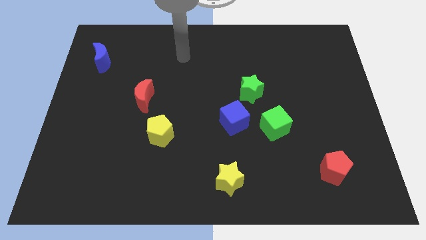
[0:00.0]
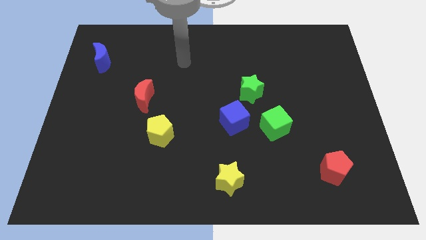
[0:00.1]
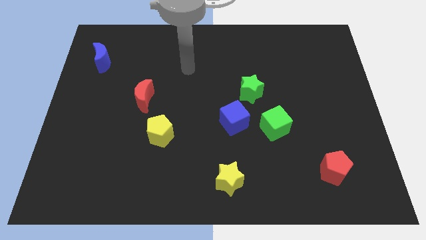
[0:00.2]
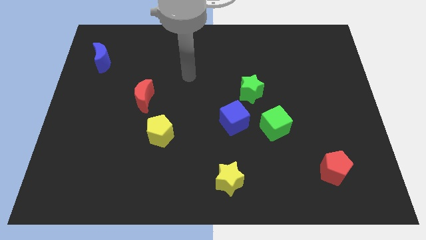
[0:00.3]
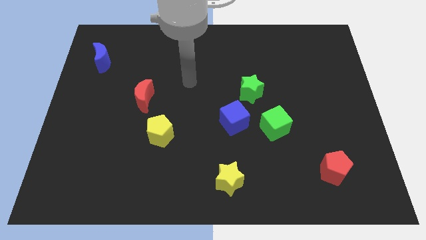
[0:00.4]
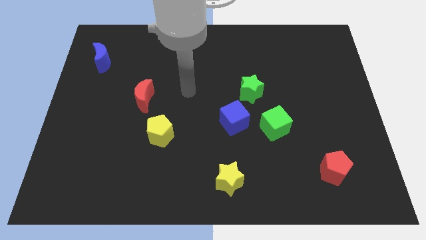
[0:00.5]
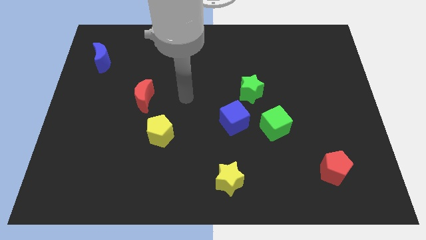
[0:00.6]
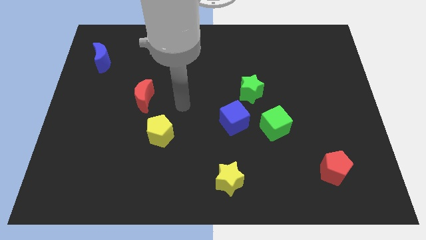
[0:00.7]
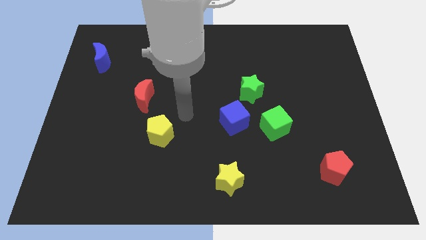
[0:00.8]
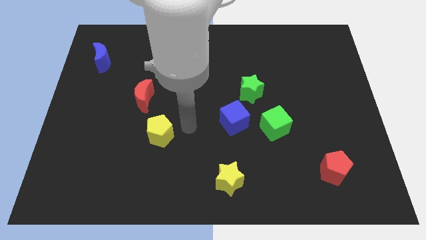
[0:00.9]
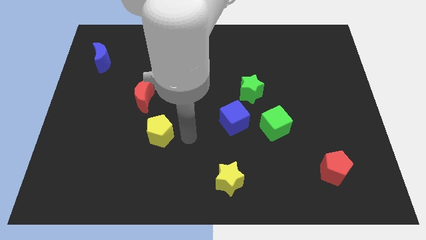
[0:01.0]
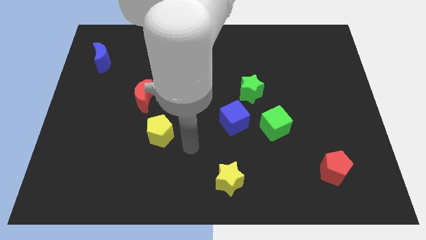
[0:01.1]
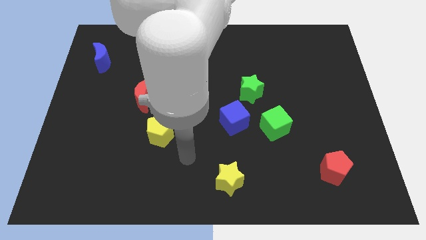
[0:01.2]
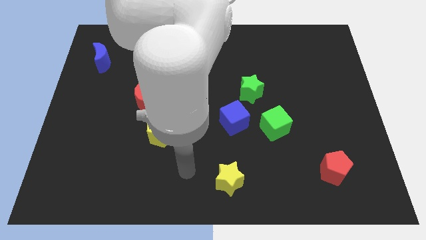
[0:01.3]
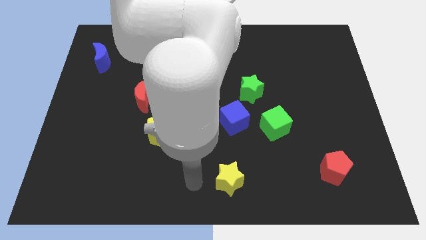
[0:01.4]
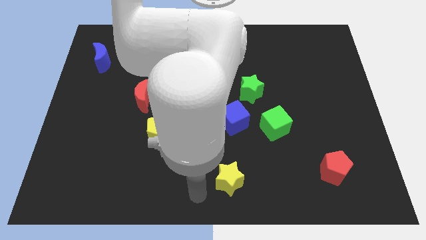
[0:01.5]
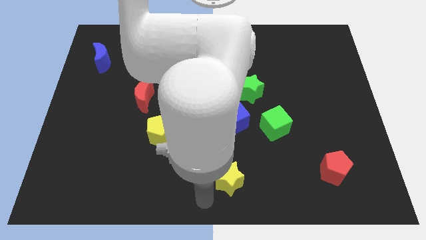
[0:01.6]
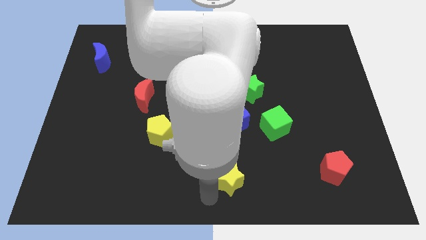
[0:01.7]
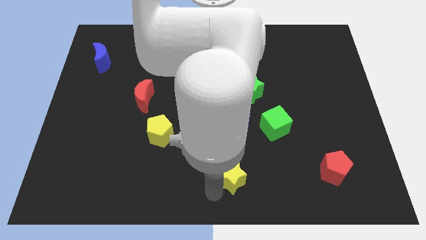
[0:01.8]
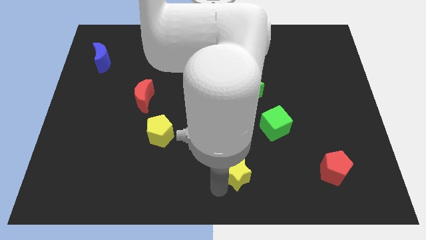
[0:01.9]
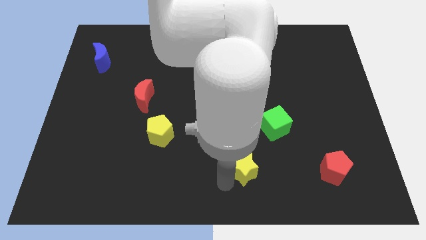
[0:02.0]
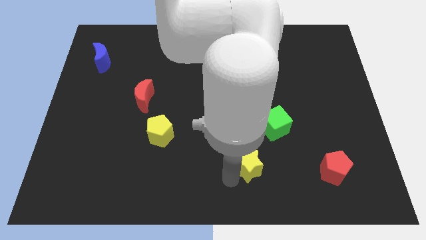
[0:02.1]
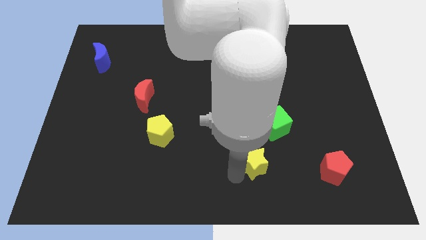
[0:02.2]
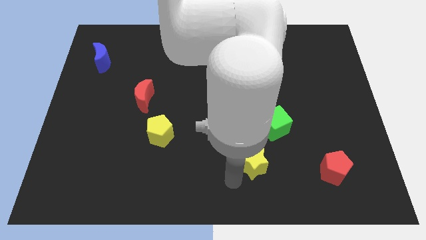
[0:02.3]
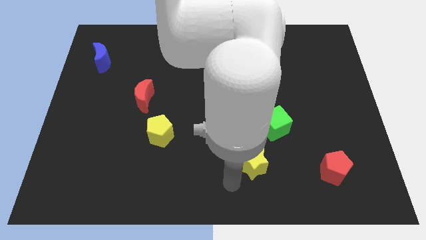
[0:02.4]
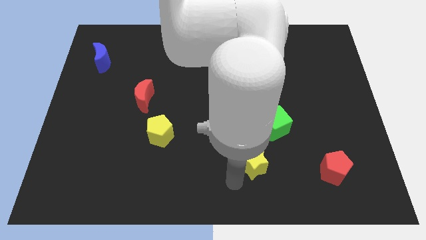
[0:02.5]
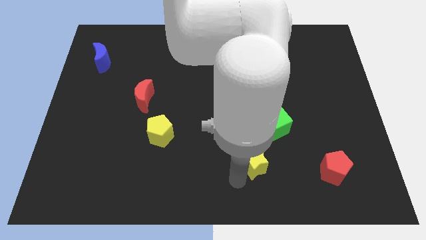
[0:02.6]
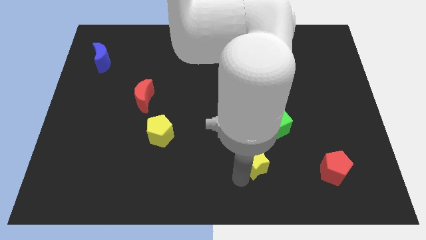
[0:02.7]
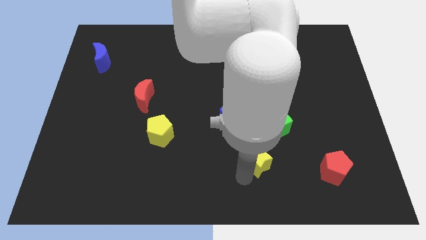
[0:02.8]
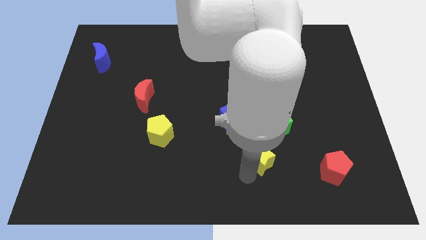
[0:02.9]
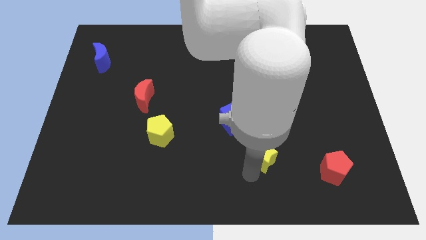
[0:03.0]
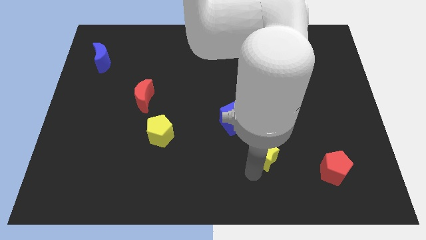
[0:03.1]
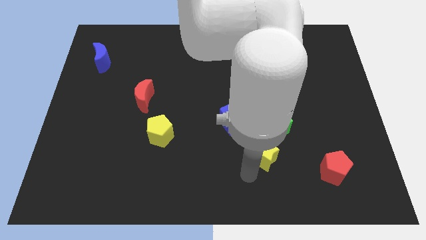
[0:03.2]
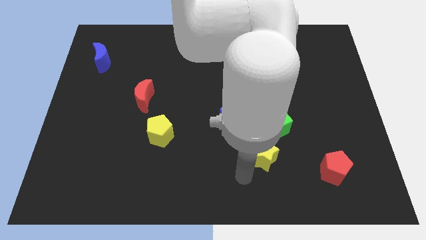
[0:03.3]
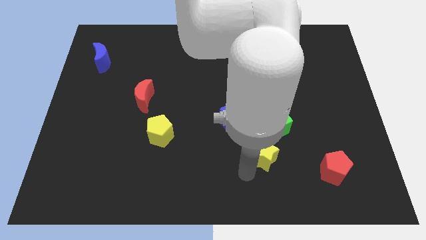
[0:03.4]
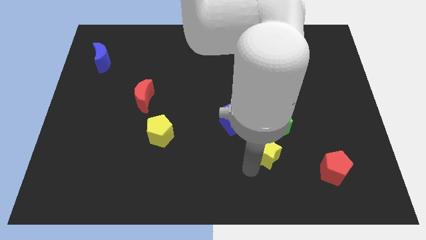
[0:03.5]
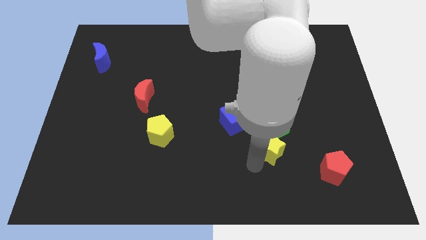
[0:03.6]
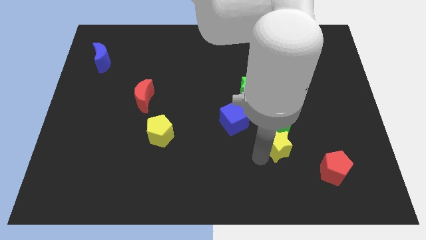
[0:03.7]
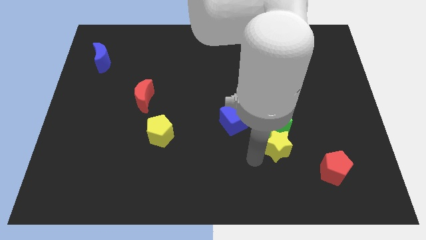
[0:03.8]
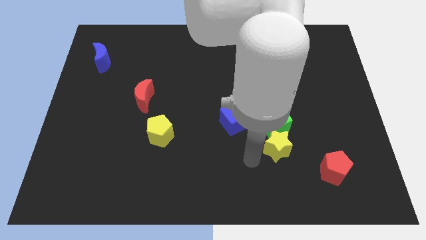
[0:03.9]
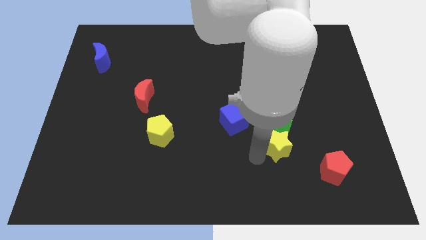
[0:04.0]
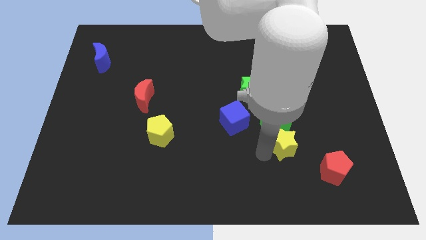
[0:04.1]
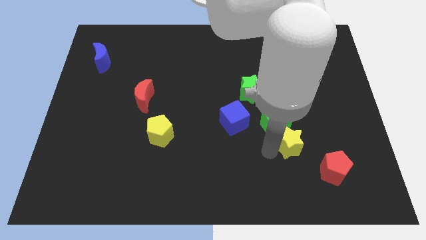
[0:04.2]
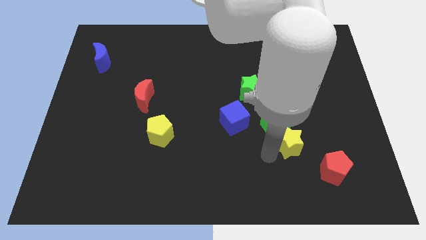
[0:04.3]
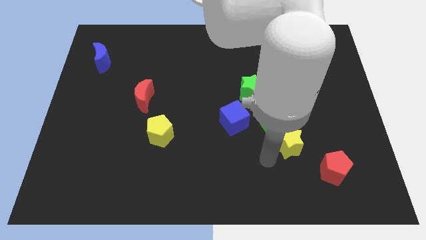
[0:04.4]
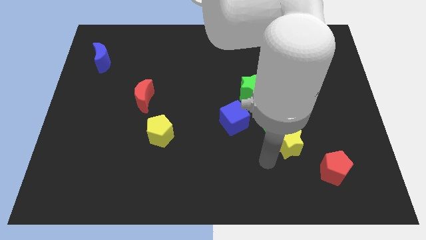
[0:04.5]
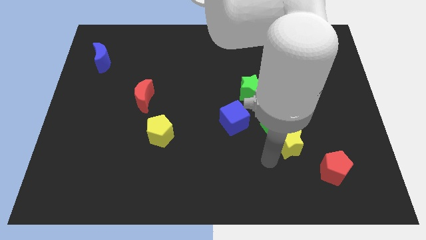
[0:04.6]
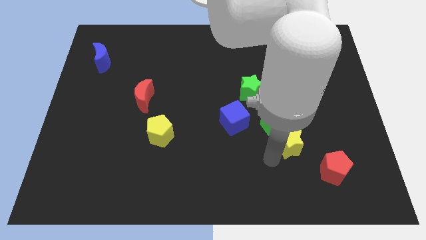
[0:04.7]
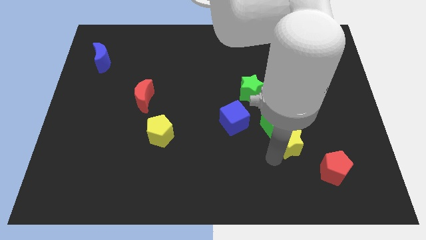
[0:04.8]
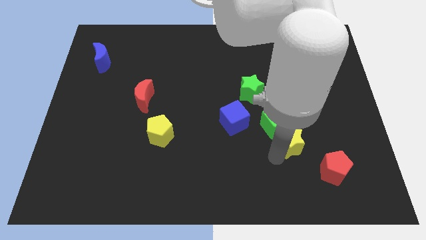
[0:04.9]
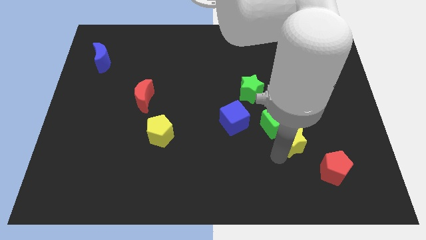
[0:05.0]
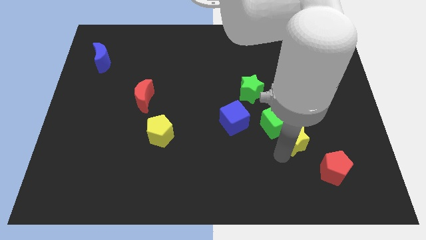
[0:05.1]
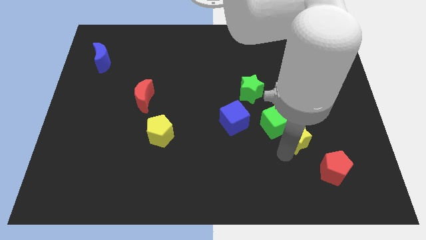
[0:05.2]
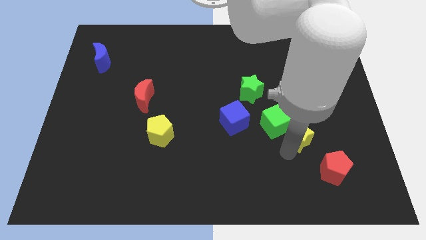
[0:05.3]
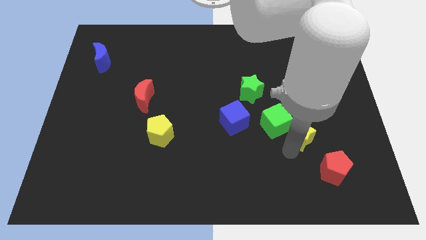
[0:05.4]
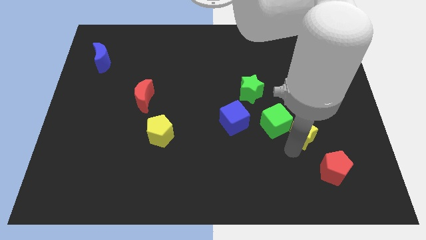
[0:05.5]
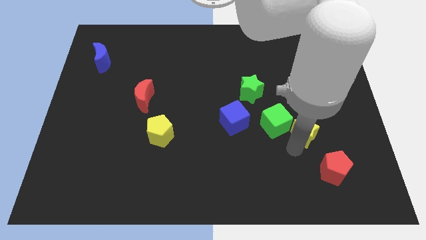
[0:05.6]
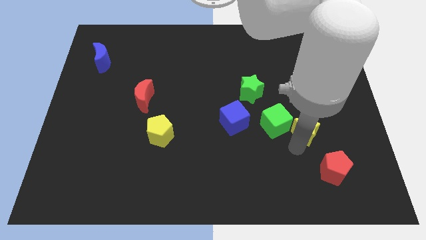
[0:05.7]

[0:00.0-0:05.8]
move the yellow star up and right

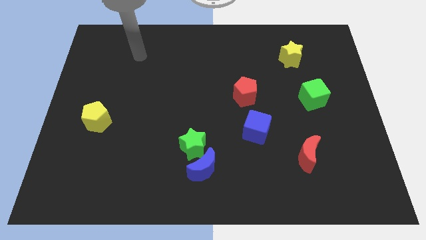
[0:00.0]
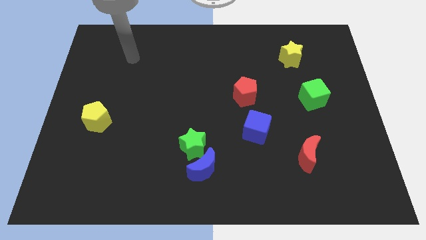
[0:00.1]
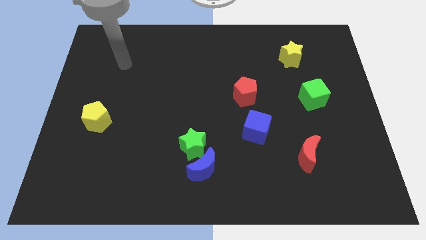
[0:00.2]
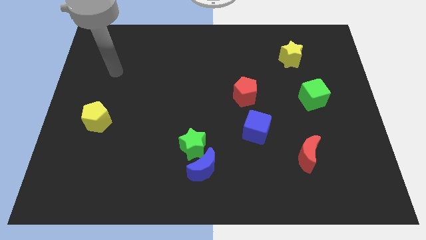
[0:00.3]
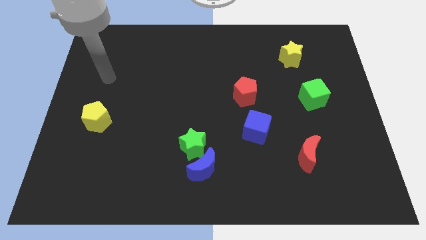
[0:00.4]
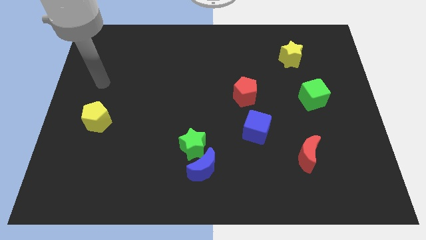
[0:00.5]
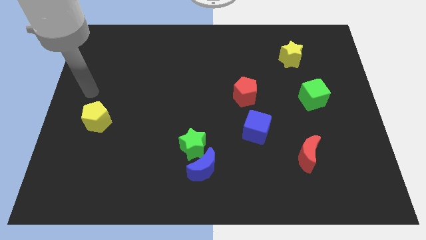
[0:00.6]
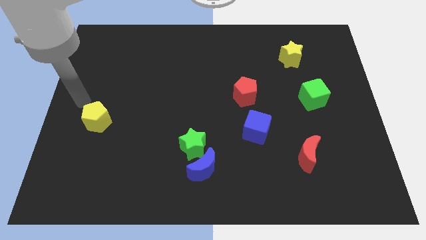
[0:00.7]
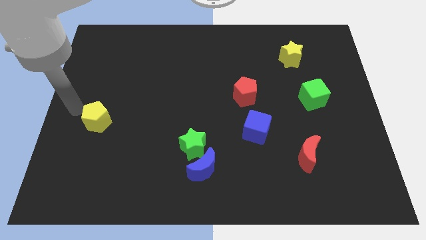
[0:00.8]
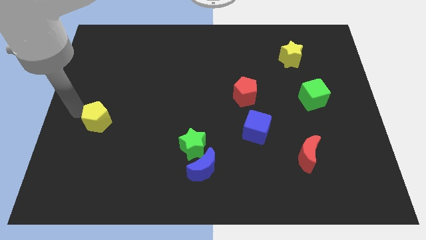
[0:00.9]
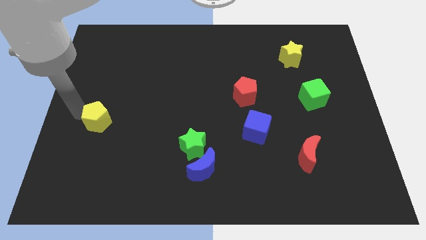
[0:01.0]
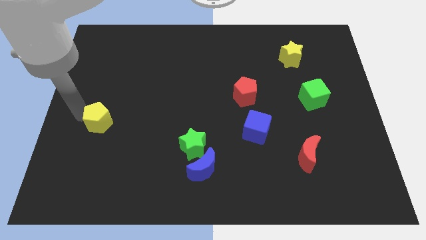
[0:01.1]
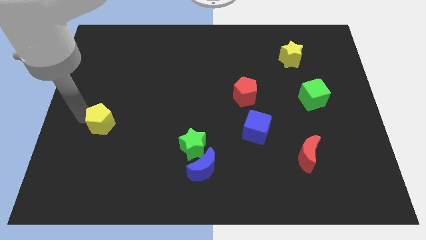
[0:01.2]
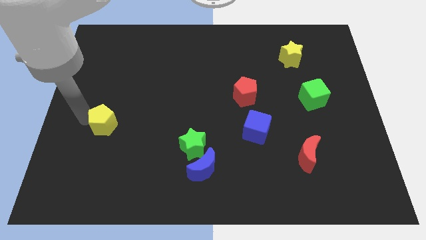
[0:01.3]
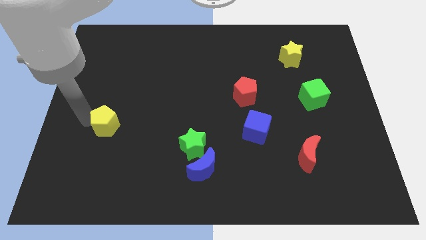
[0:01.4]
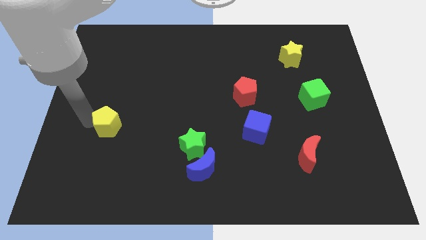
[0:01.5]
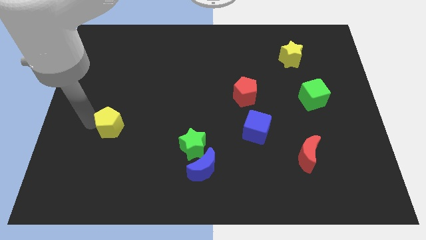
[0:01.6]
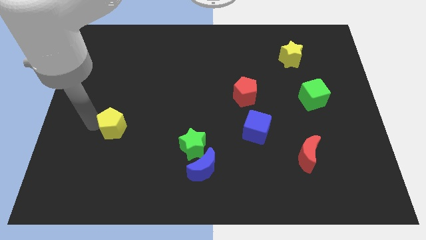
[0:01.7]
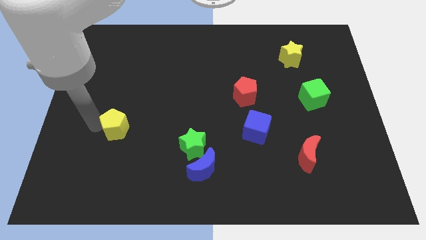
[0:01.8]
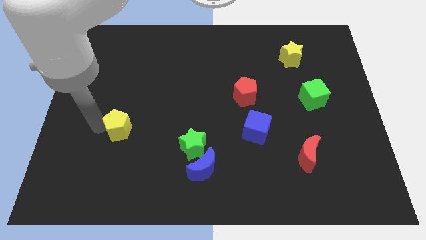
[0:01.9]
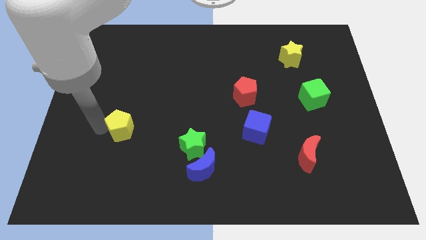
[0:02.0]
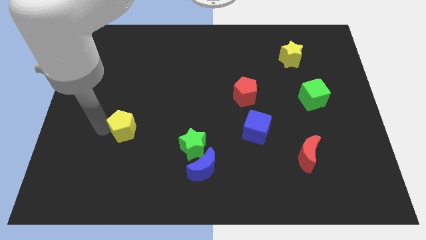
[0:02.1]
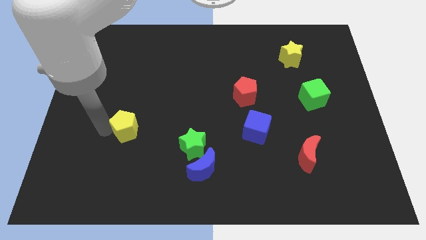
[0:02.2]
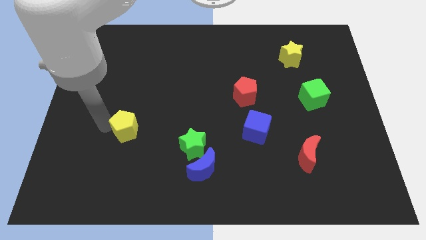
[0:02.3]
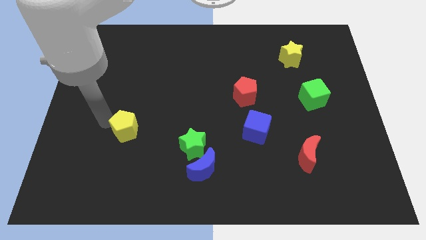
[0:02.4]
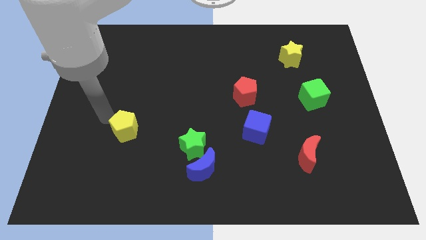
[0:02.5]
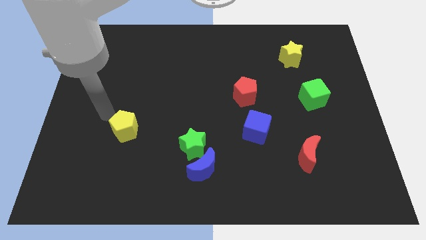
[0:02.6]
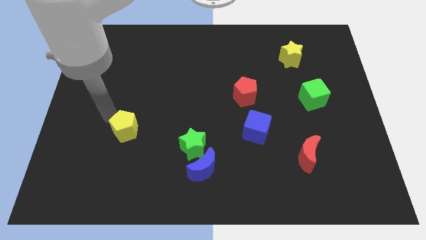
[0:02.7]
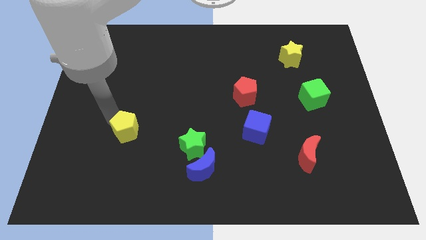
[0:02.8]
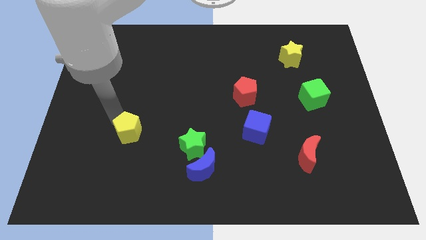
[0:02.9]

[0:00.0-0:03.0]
move the yellow pentagon downwards and right slightly
